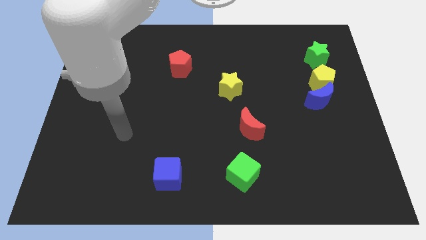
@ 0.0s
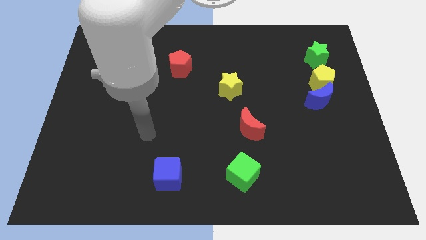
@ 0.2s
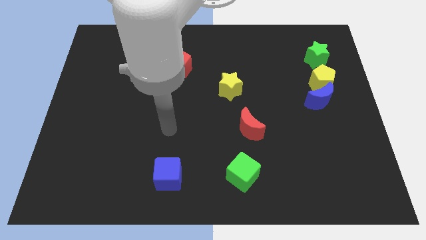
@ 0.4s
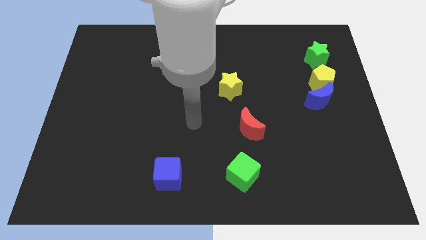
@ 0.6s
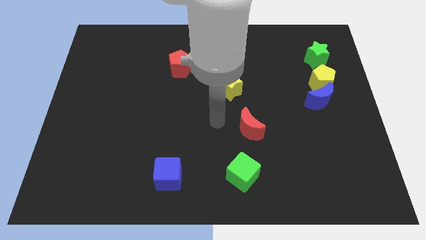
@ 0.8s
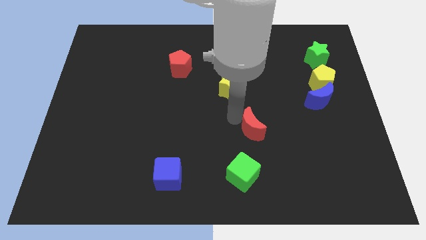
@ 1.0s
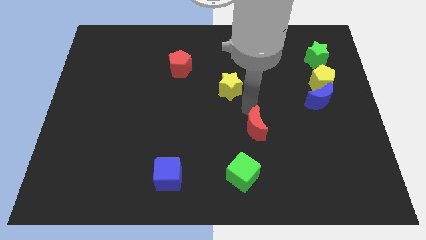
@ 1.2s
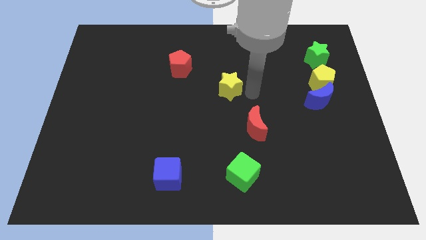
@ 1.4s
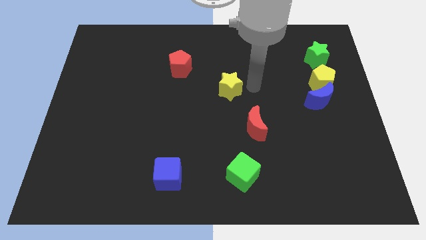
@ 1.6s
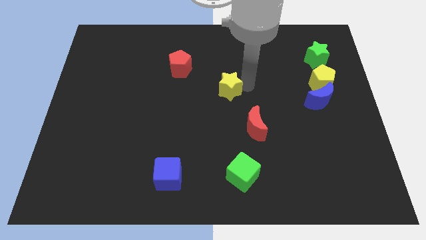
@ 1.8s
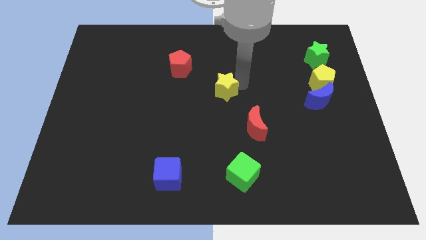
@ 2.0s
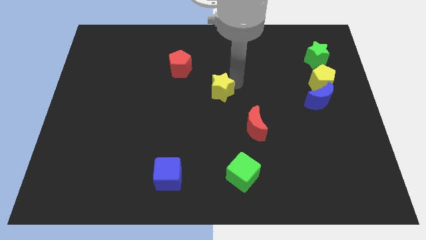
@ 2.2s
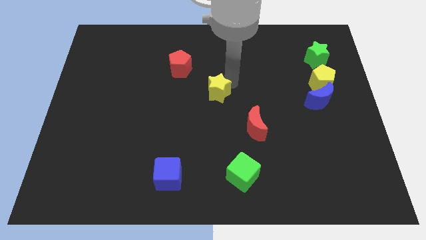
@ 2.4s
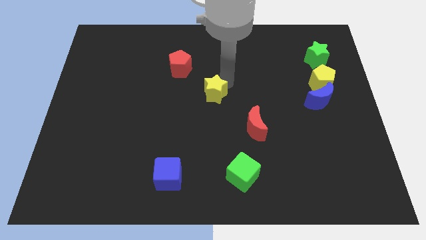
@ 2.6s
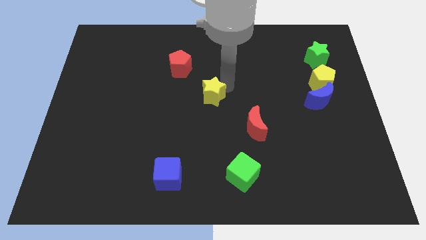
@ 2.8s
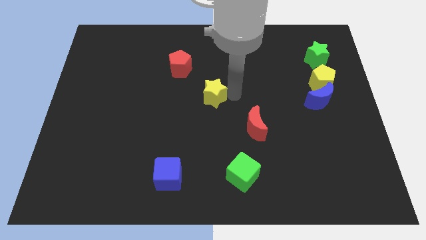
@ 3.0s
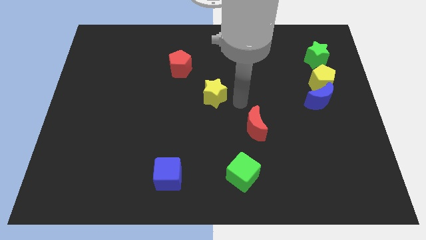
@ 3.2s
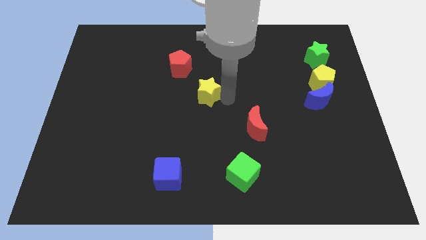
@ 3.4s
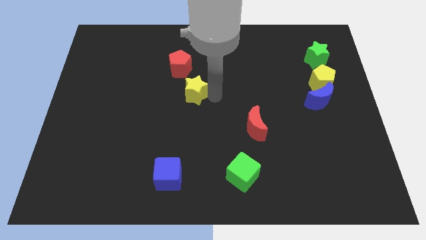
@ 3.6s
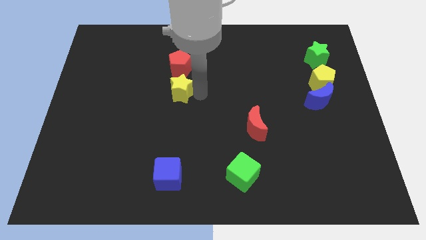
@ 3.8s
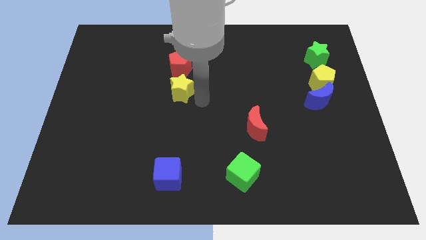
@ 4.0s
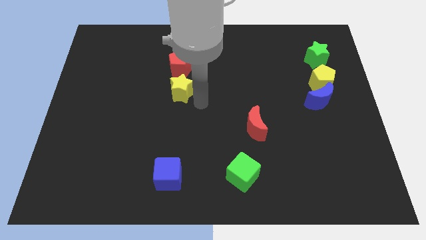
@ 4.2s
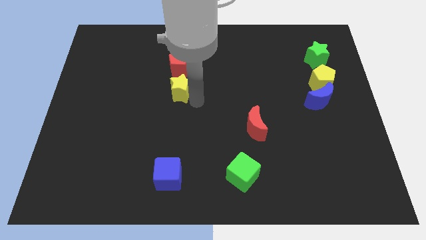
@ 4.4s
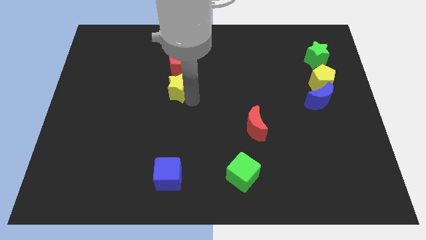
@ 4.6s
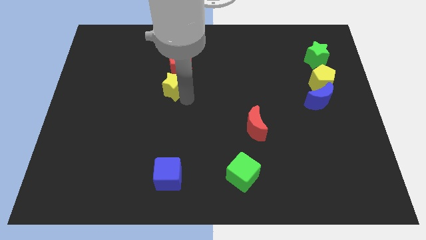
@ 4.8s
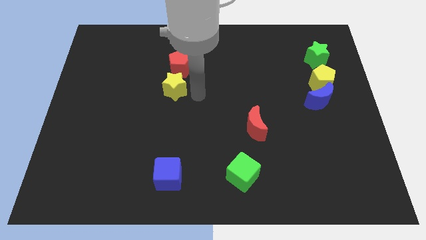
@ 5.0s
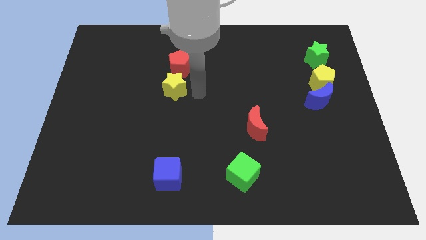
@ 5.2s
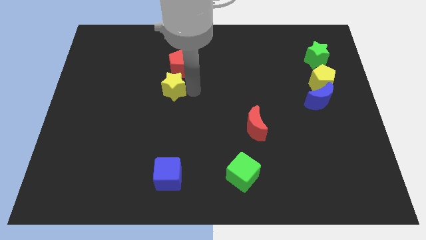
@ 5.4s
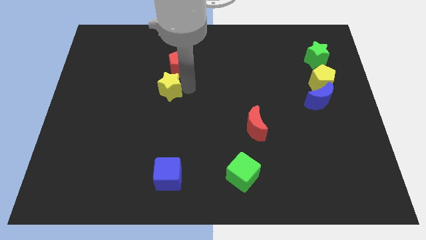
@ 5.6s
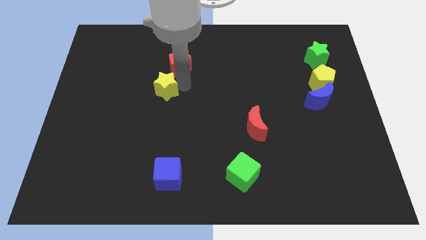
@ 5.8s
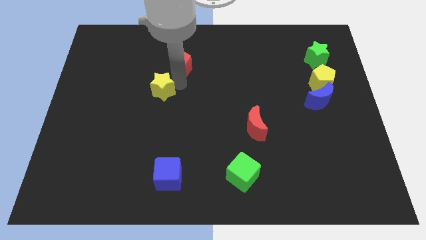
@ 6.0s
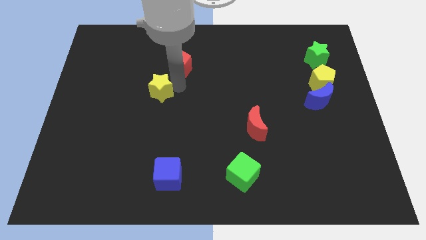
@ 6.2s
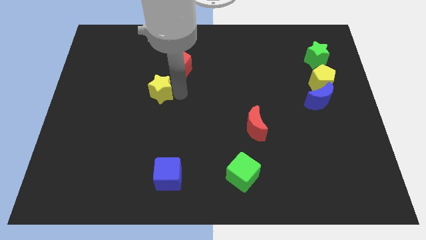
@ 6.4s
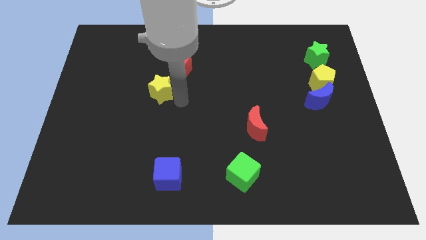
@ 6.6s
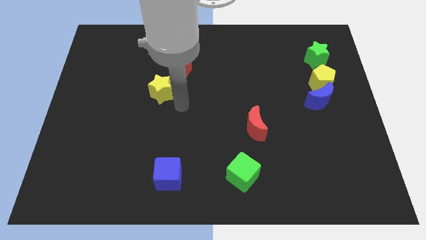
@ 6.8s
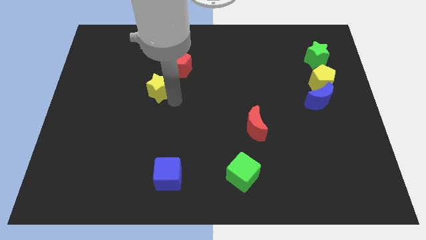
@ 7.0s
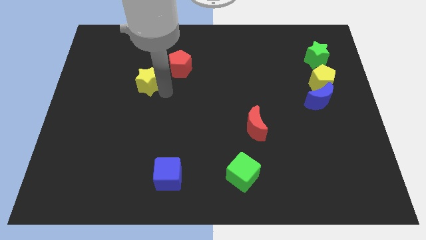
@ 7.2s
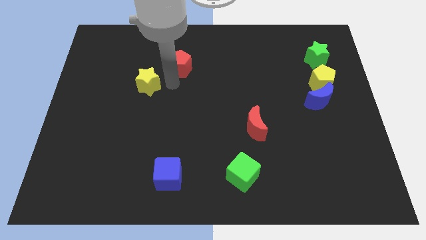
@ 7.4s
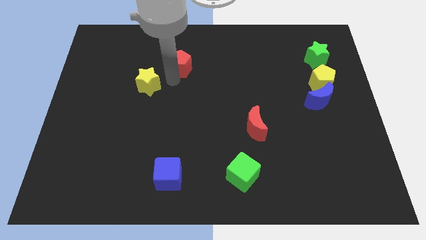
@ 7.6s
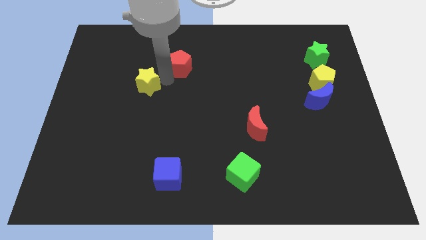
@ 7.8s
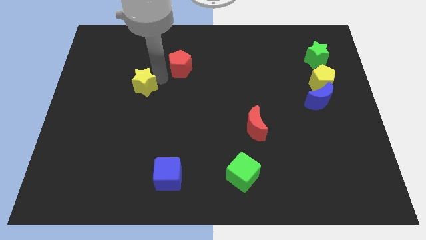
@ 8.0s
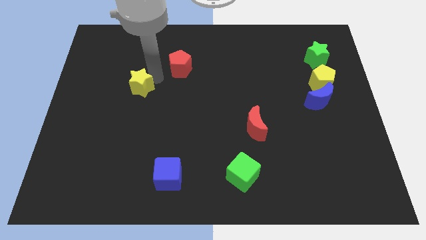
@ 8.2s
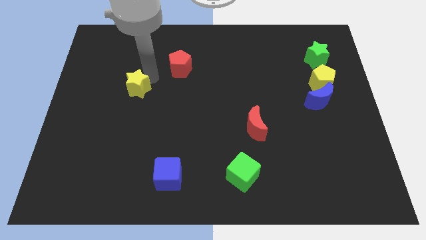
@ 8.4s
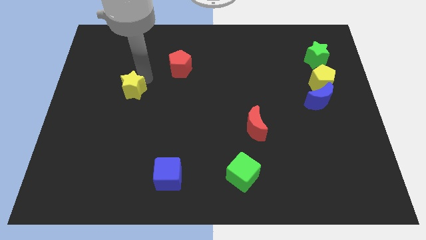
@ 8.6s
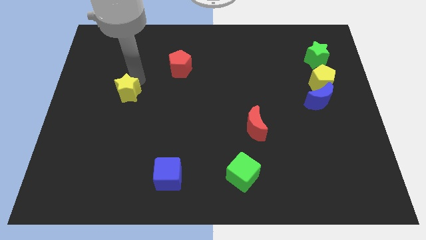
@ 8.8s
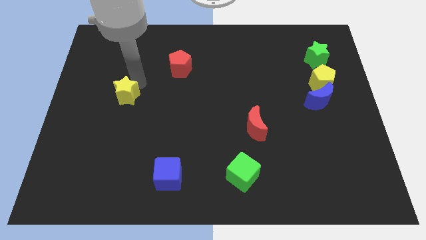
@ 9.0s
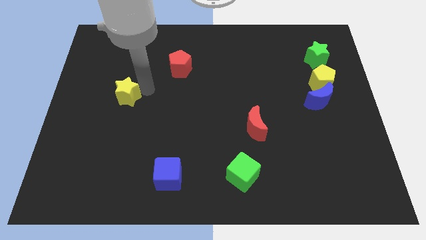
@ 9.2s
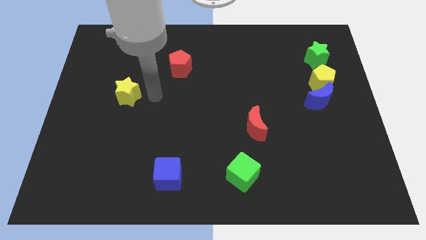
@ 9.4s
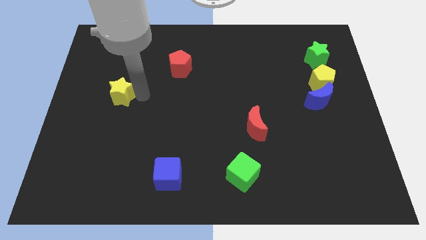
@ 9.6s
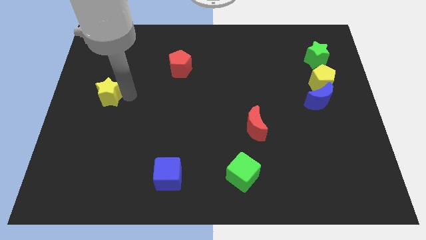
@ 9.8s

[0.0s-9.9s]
push the yellow star to the left side of the board

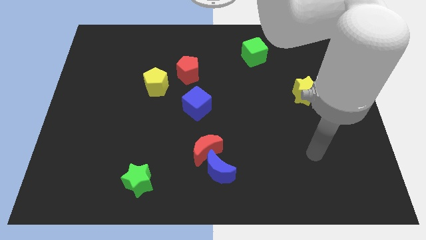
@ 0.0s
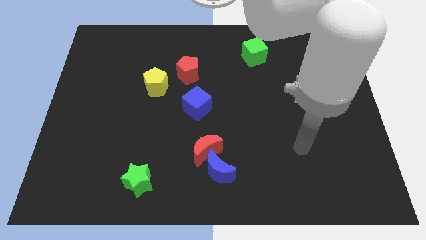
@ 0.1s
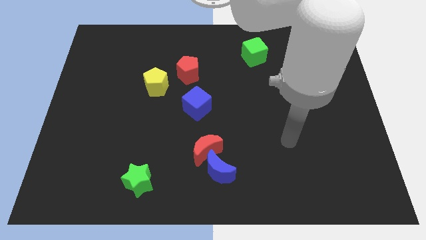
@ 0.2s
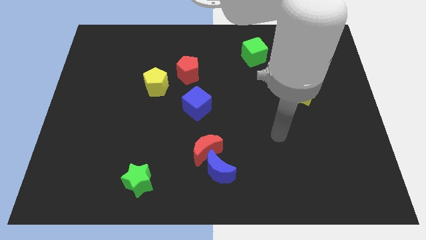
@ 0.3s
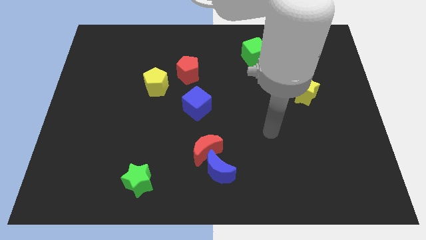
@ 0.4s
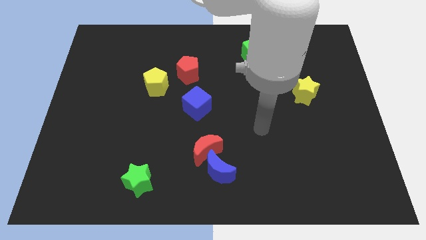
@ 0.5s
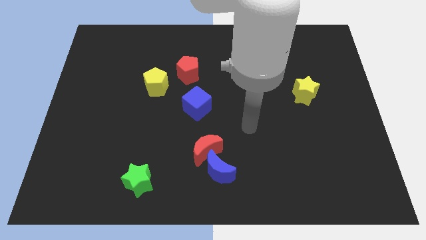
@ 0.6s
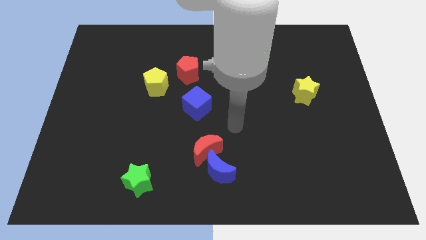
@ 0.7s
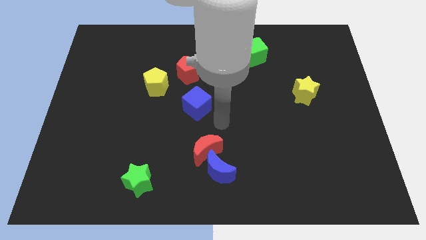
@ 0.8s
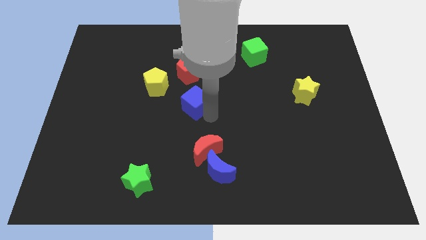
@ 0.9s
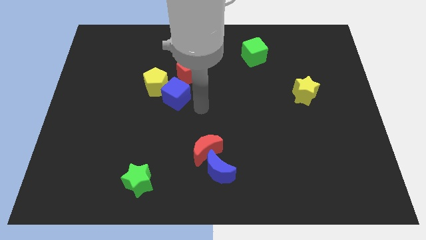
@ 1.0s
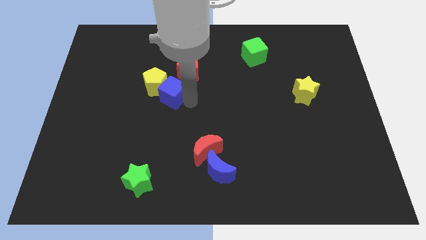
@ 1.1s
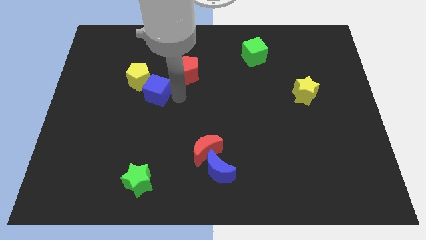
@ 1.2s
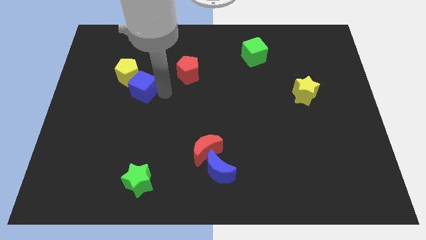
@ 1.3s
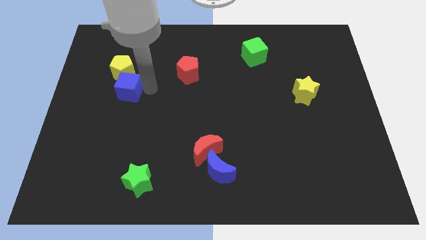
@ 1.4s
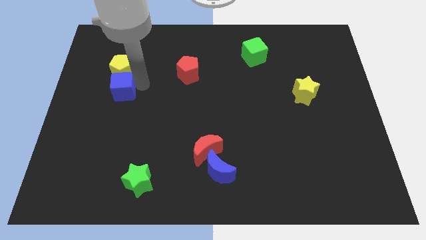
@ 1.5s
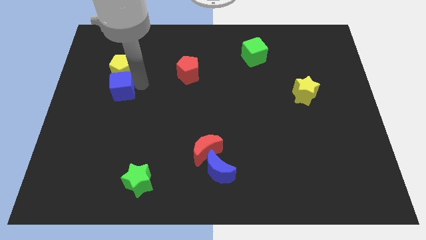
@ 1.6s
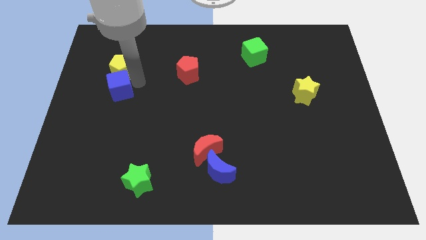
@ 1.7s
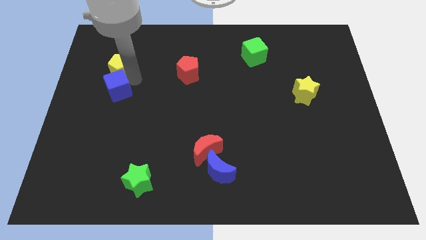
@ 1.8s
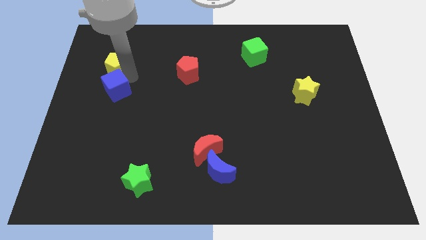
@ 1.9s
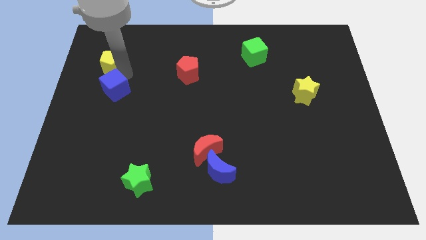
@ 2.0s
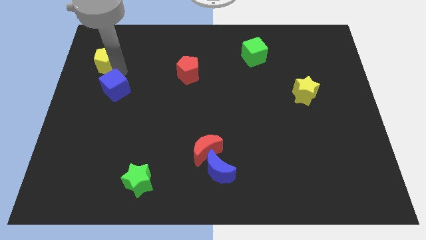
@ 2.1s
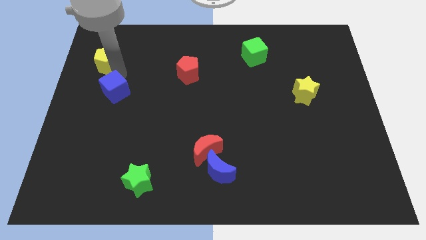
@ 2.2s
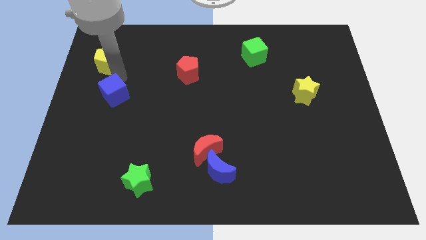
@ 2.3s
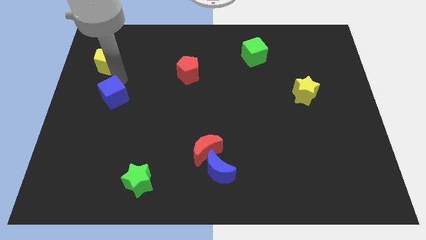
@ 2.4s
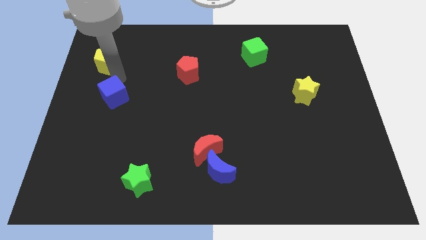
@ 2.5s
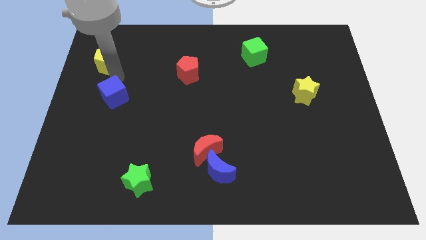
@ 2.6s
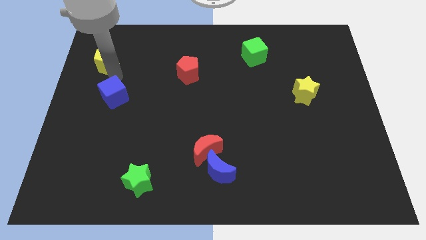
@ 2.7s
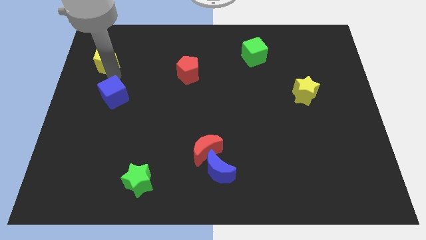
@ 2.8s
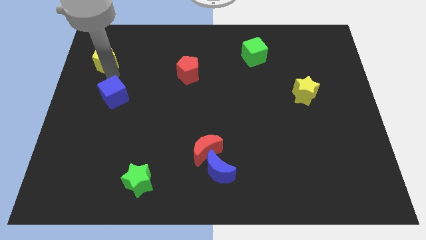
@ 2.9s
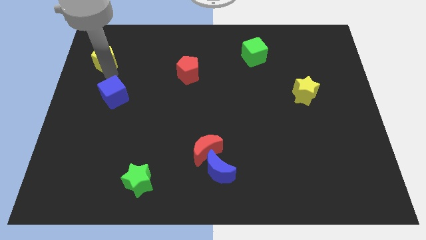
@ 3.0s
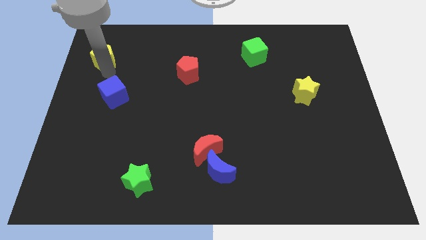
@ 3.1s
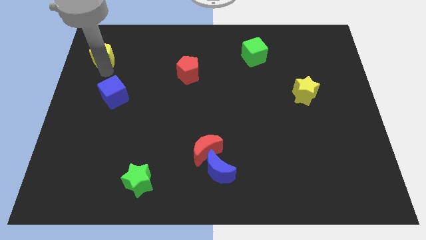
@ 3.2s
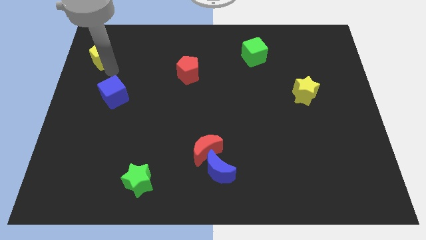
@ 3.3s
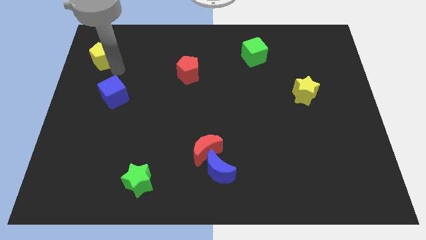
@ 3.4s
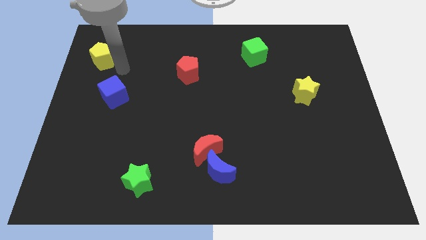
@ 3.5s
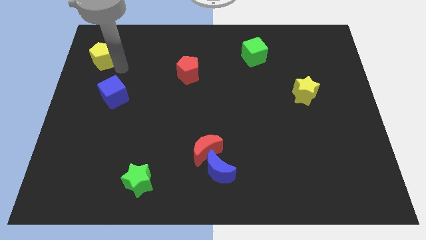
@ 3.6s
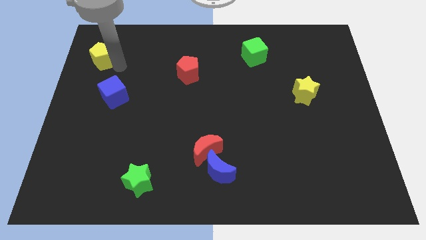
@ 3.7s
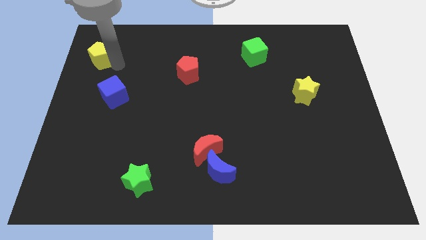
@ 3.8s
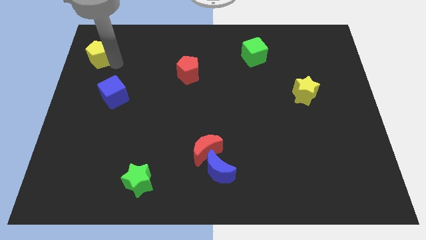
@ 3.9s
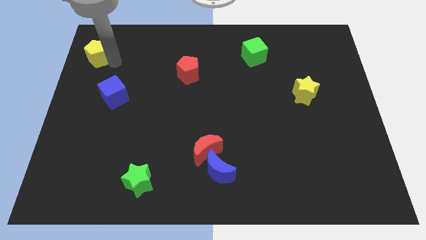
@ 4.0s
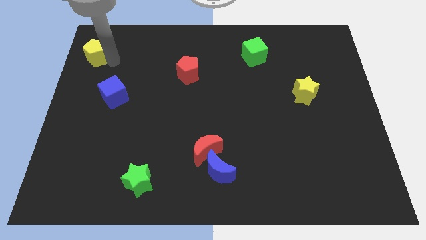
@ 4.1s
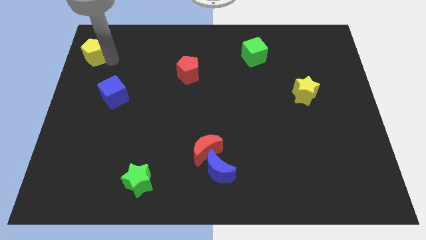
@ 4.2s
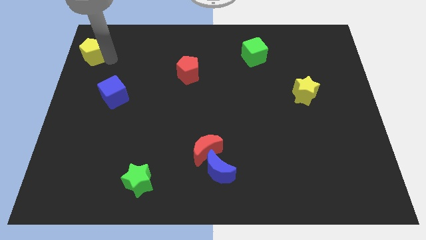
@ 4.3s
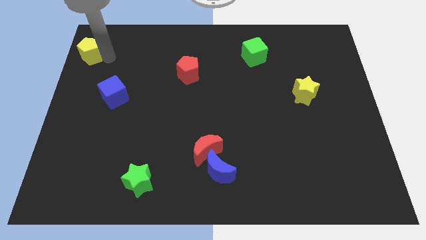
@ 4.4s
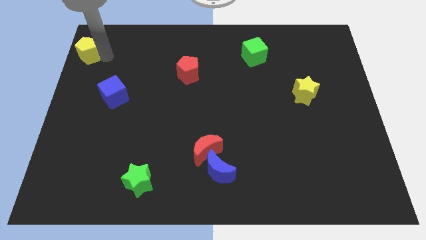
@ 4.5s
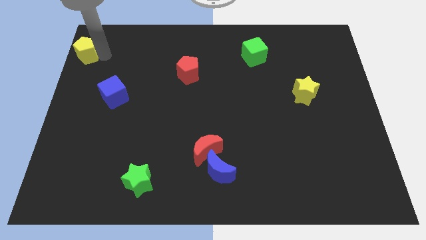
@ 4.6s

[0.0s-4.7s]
push the yellow pentagon to the upper left corner
